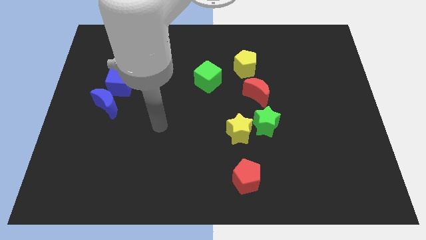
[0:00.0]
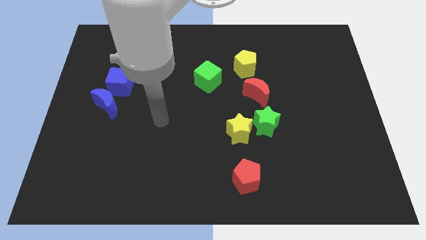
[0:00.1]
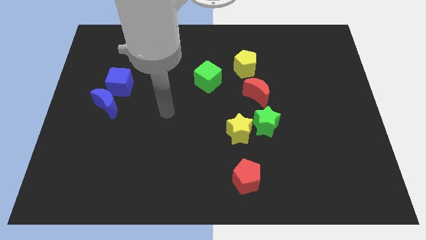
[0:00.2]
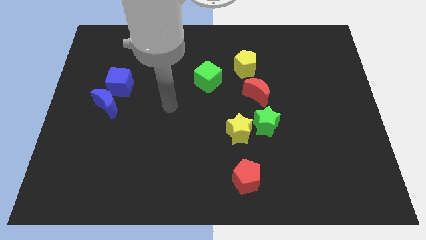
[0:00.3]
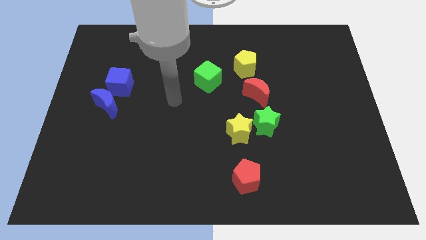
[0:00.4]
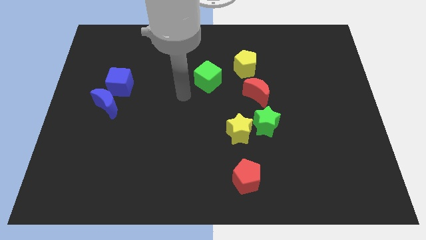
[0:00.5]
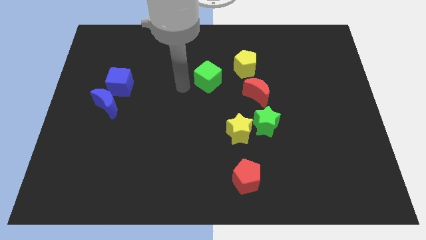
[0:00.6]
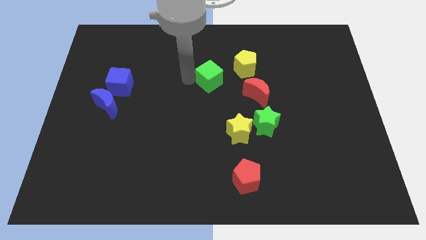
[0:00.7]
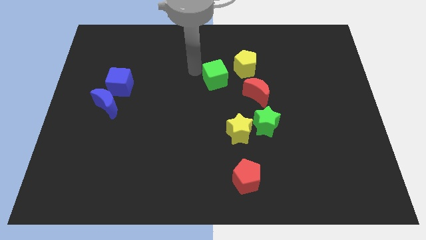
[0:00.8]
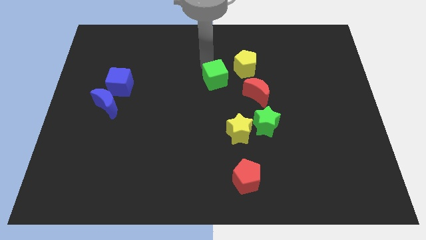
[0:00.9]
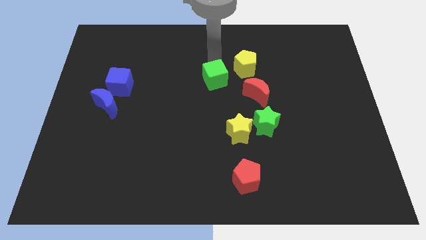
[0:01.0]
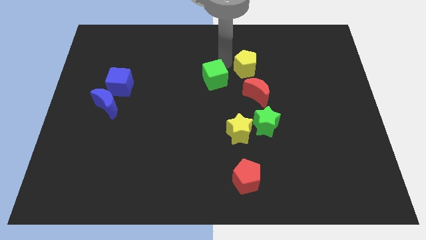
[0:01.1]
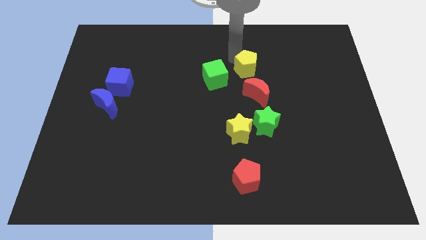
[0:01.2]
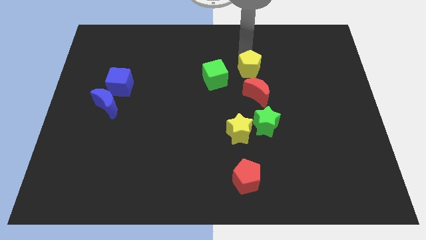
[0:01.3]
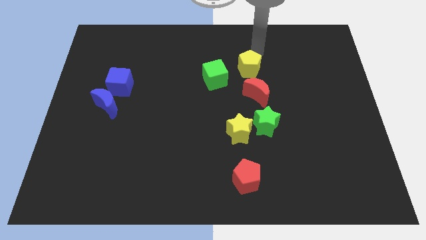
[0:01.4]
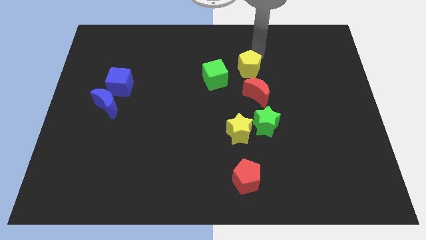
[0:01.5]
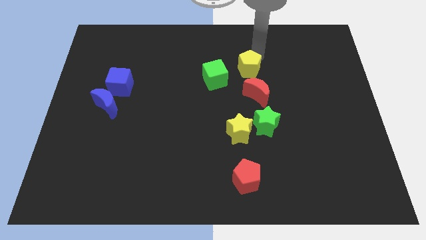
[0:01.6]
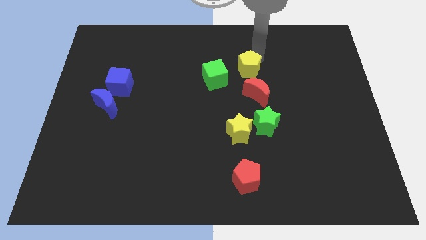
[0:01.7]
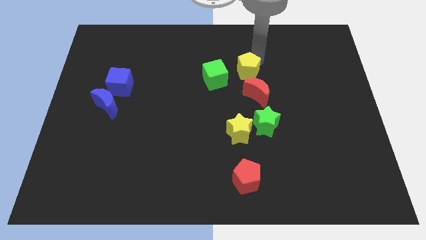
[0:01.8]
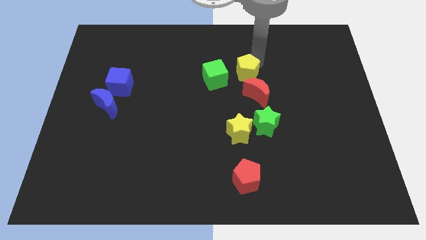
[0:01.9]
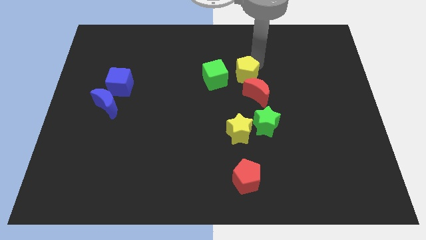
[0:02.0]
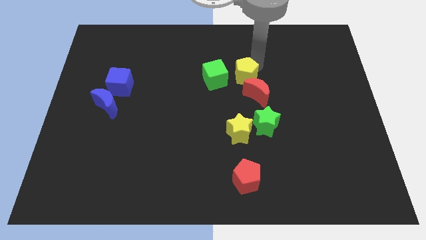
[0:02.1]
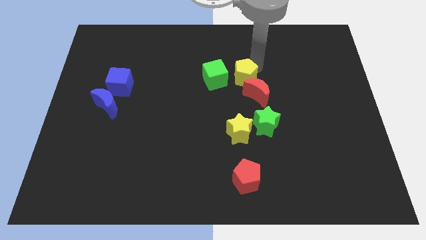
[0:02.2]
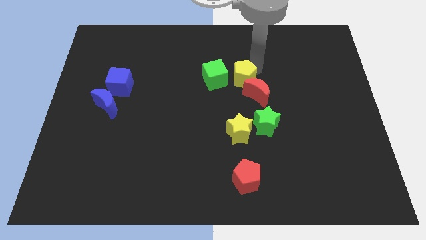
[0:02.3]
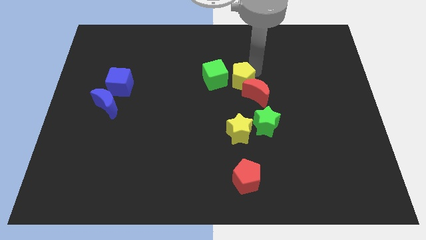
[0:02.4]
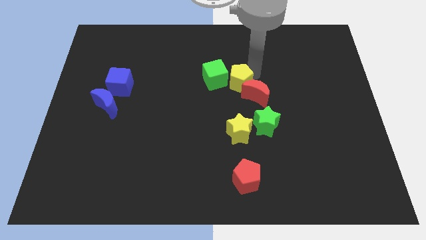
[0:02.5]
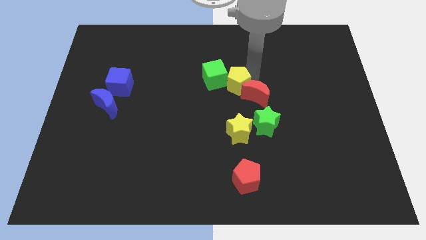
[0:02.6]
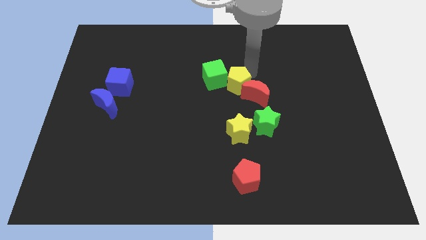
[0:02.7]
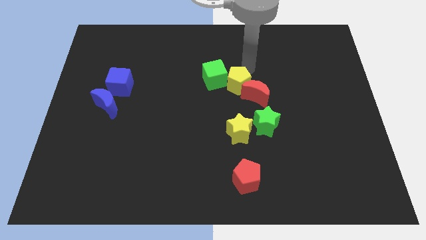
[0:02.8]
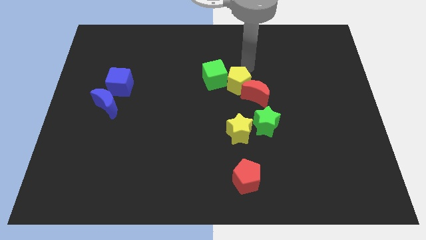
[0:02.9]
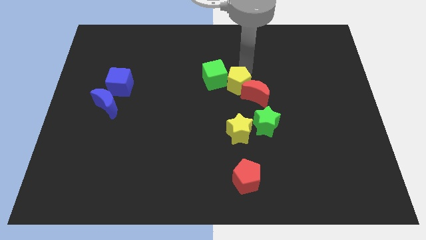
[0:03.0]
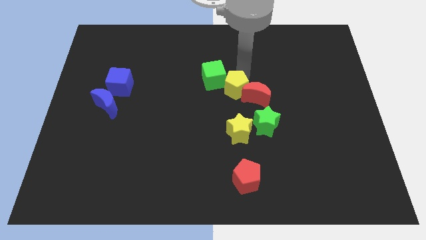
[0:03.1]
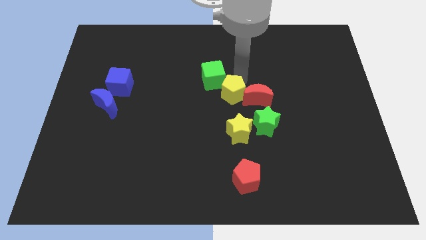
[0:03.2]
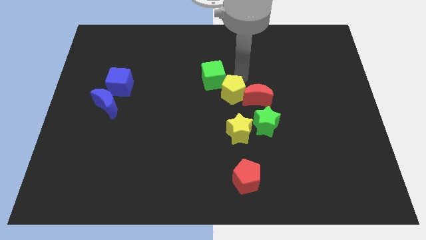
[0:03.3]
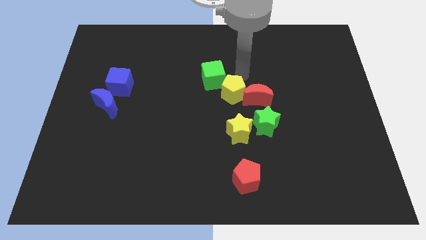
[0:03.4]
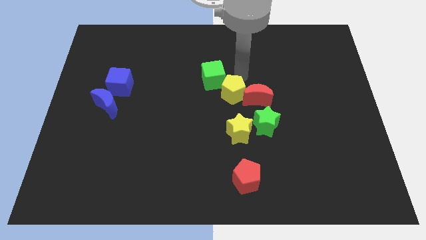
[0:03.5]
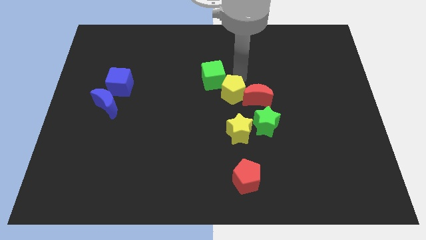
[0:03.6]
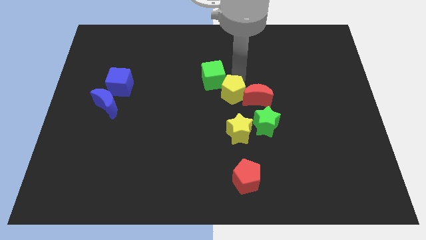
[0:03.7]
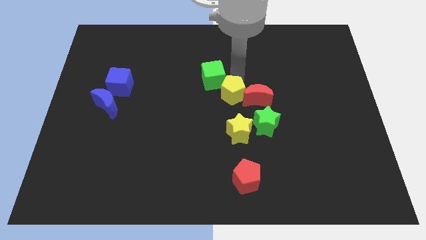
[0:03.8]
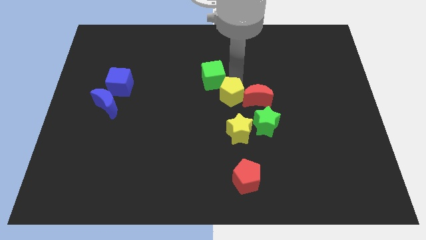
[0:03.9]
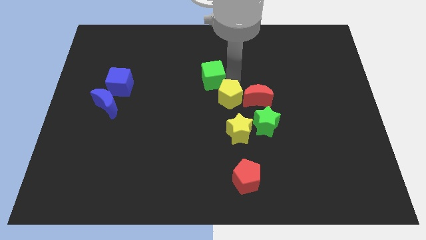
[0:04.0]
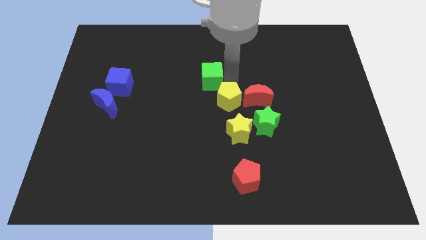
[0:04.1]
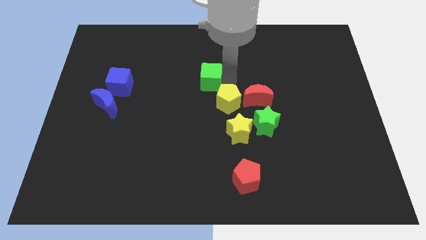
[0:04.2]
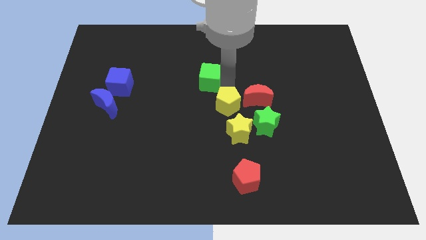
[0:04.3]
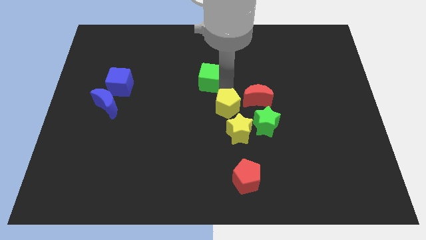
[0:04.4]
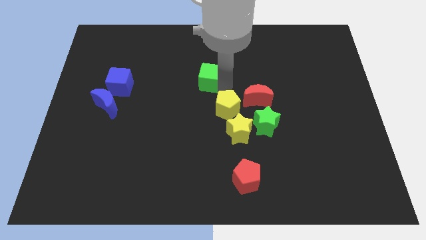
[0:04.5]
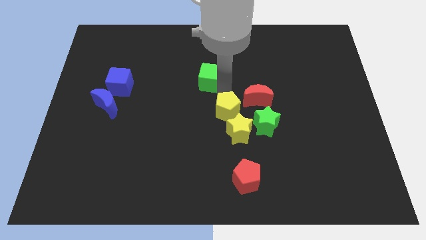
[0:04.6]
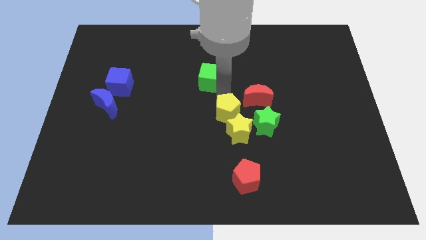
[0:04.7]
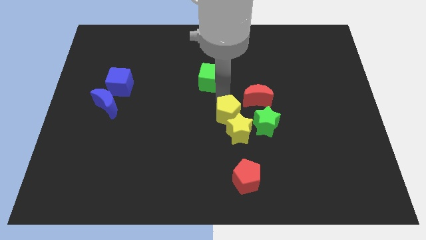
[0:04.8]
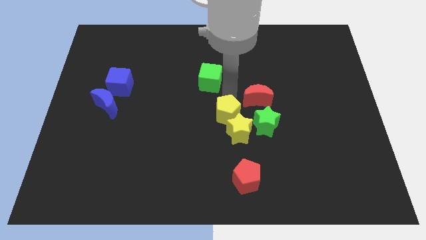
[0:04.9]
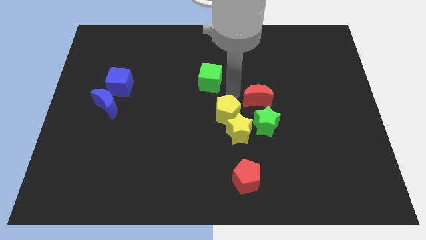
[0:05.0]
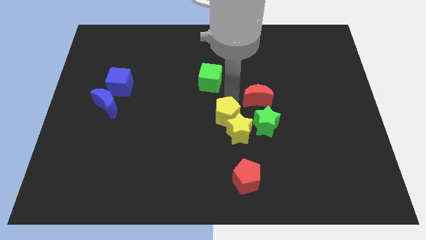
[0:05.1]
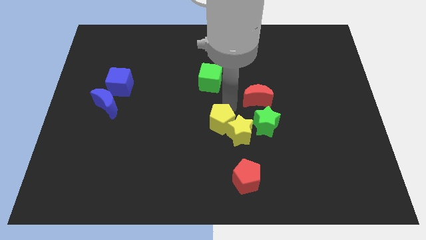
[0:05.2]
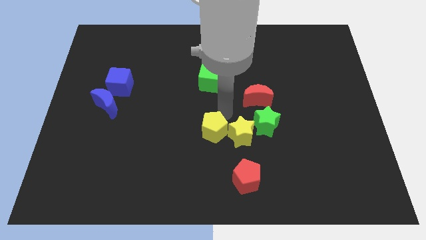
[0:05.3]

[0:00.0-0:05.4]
push the yellow pentagon to the bottom left of the yellow star

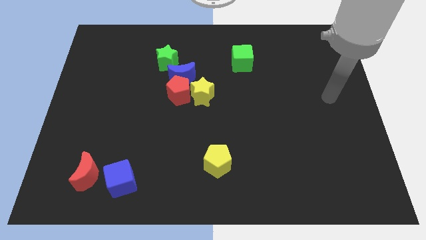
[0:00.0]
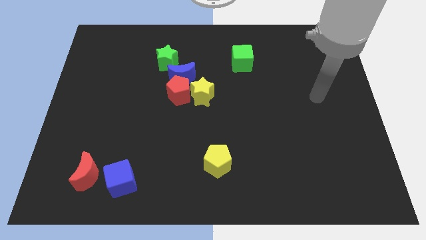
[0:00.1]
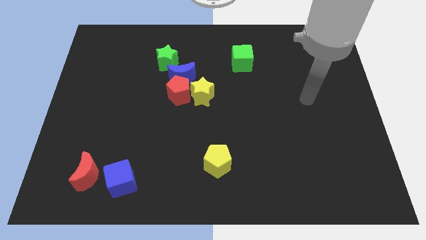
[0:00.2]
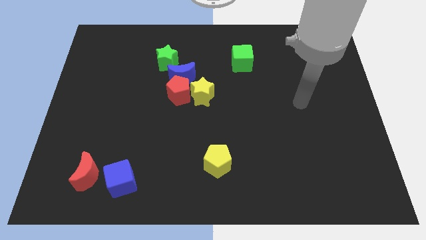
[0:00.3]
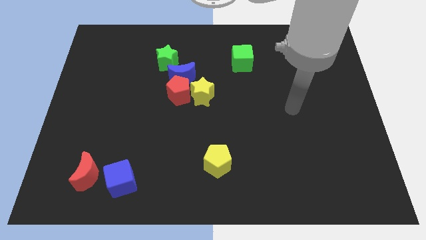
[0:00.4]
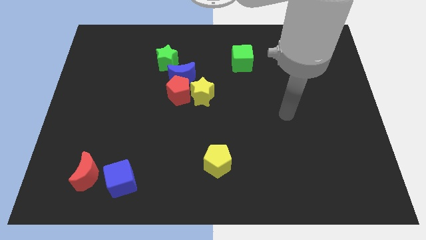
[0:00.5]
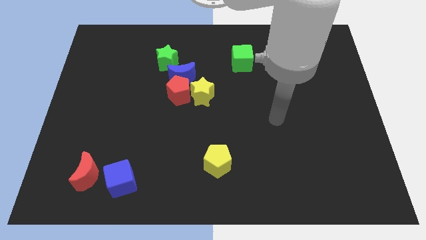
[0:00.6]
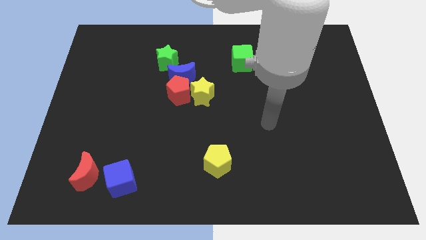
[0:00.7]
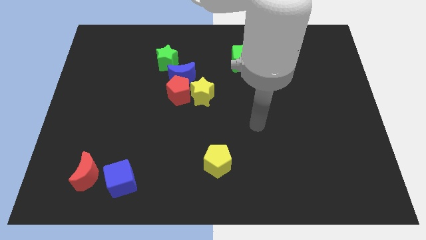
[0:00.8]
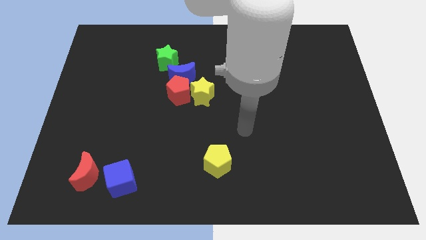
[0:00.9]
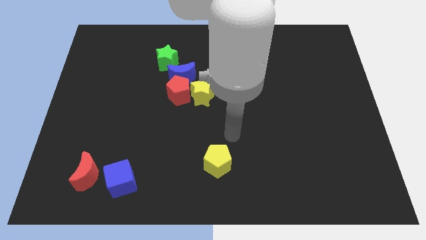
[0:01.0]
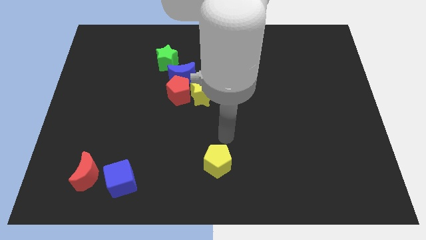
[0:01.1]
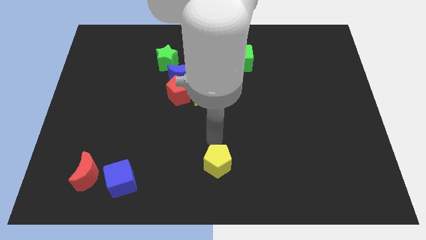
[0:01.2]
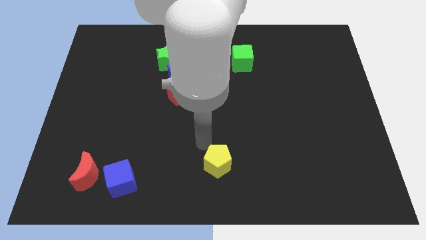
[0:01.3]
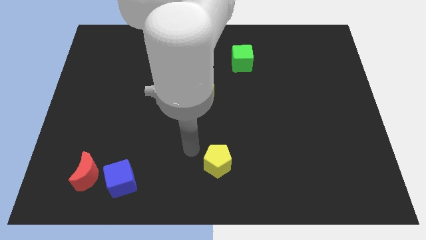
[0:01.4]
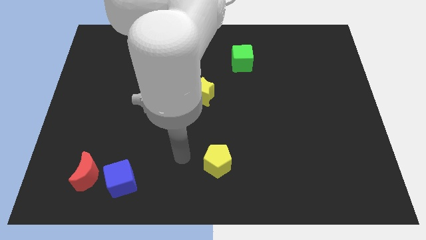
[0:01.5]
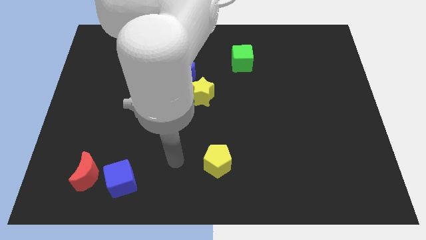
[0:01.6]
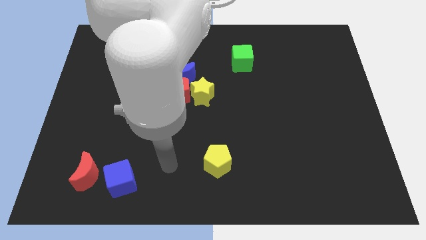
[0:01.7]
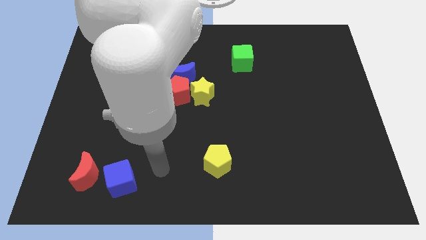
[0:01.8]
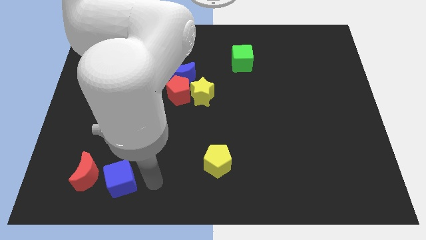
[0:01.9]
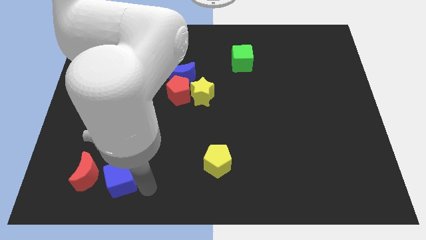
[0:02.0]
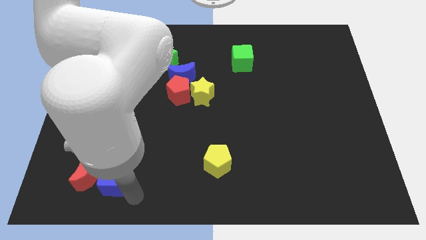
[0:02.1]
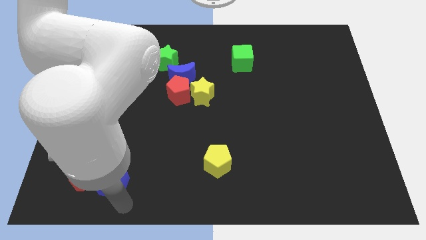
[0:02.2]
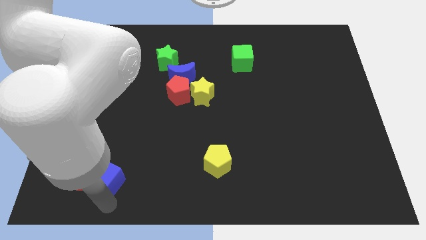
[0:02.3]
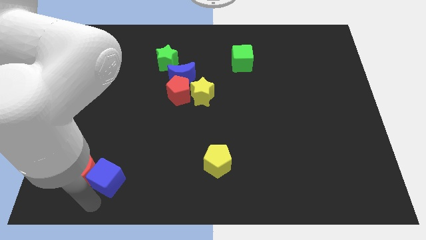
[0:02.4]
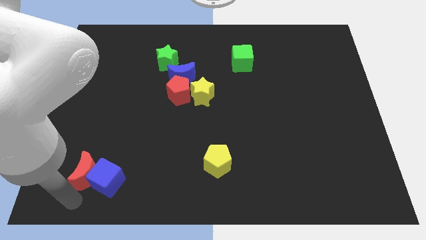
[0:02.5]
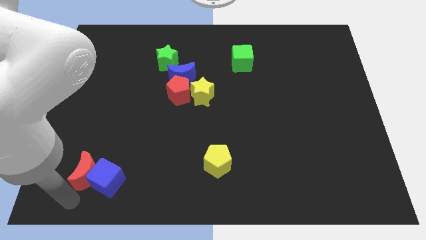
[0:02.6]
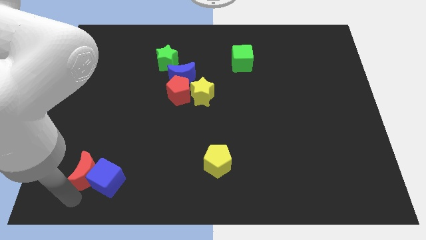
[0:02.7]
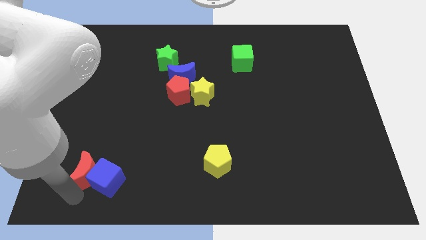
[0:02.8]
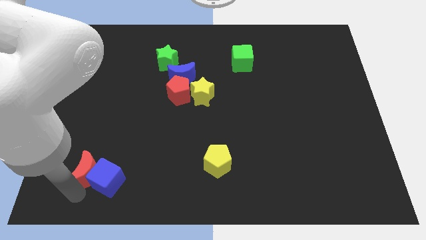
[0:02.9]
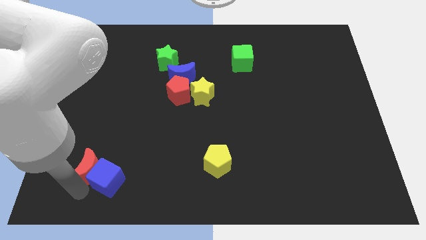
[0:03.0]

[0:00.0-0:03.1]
move the red moon to the top of the blue cube
